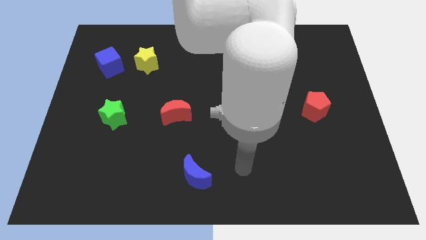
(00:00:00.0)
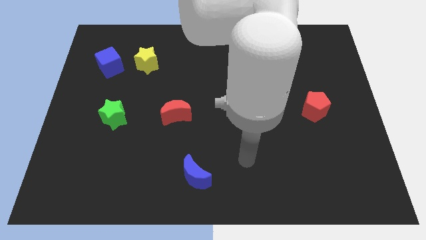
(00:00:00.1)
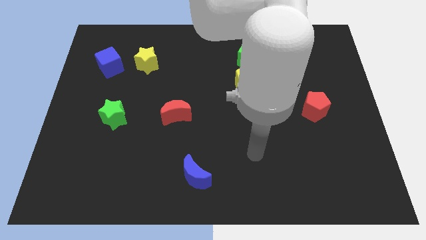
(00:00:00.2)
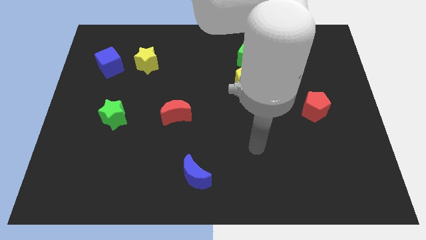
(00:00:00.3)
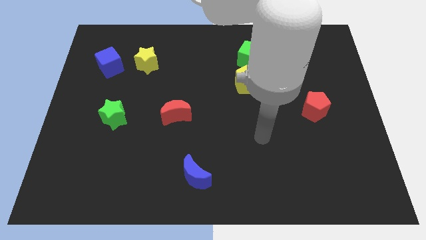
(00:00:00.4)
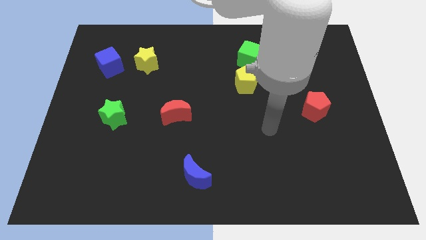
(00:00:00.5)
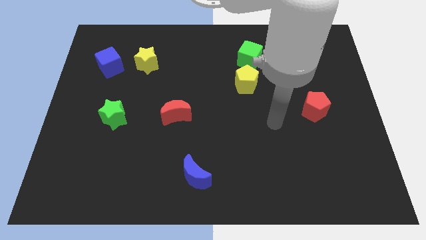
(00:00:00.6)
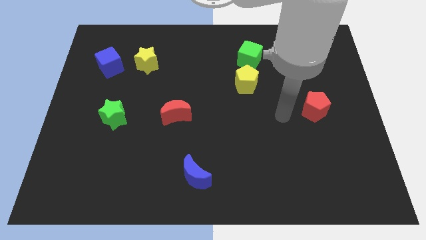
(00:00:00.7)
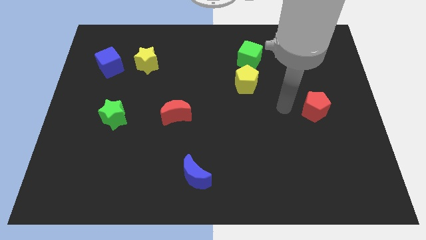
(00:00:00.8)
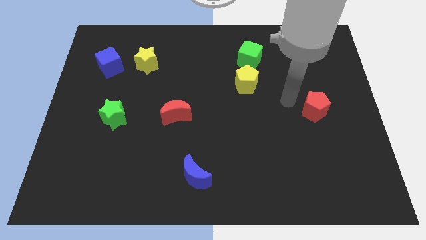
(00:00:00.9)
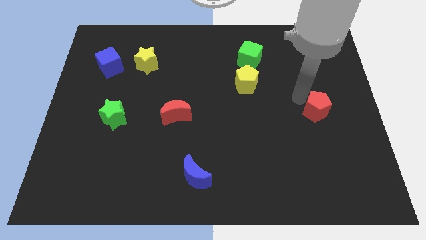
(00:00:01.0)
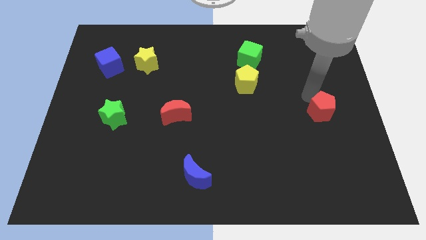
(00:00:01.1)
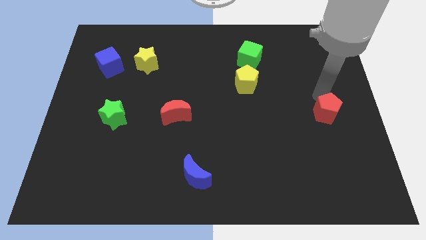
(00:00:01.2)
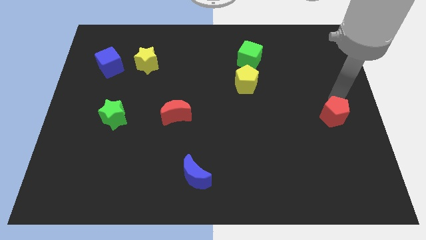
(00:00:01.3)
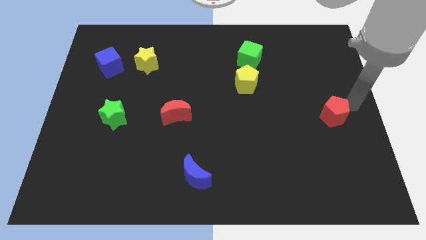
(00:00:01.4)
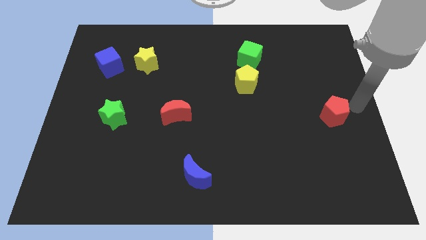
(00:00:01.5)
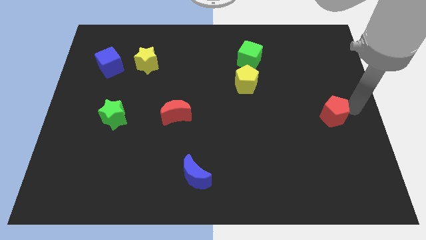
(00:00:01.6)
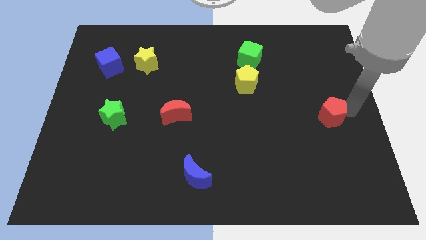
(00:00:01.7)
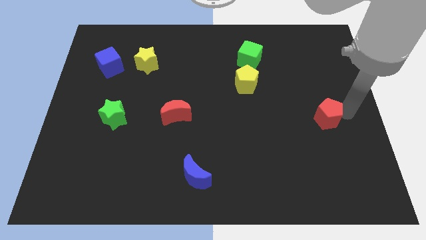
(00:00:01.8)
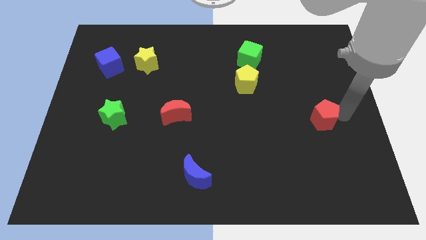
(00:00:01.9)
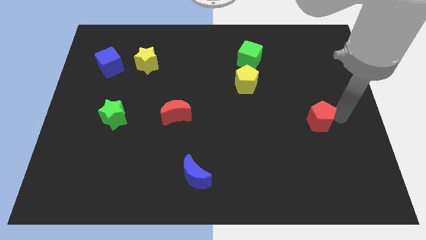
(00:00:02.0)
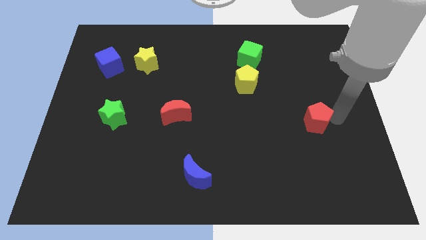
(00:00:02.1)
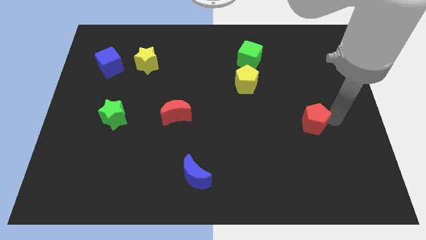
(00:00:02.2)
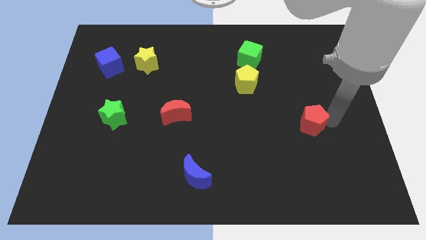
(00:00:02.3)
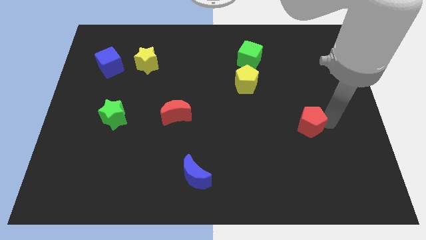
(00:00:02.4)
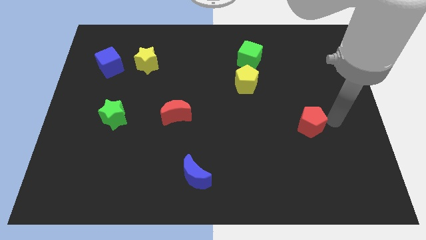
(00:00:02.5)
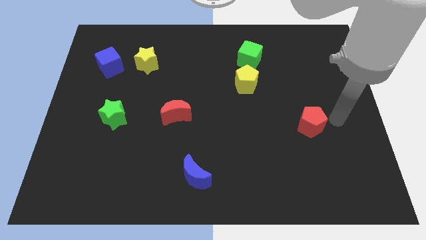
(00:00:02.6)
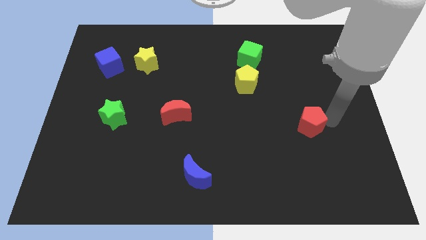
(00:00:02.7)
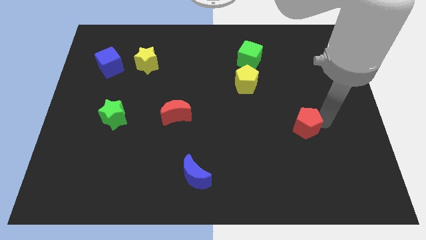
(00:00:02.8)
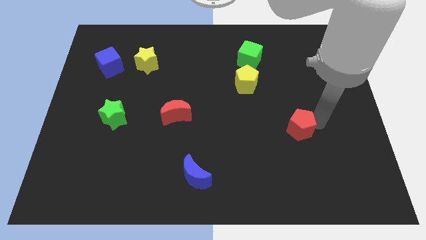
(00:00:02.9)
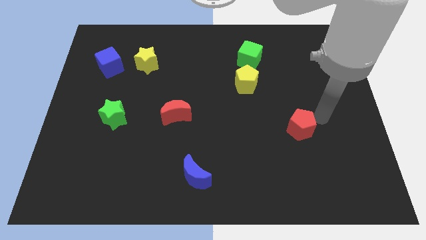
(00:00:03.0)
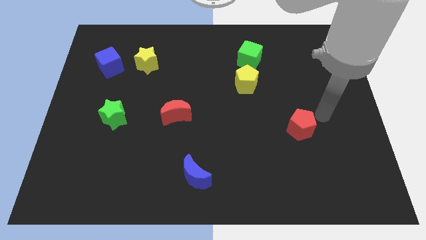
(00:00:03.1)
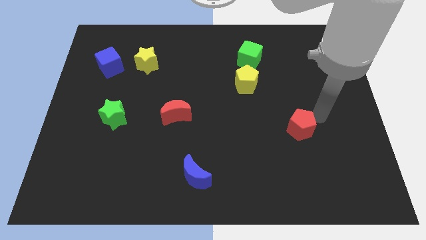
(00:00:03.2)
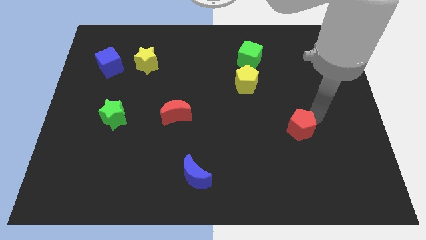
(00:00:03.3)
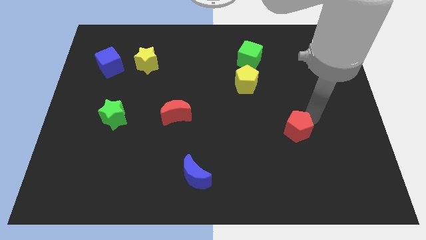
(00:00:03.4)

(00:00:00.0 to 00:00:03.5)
move the red pentagon slightly diagonally down and left

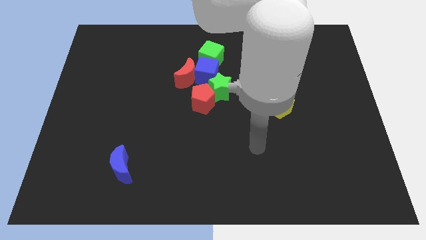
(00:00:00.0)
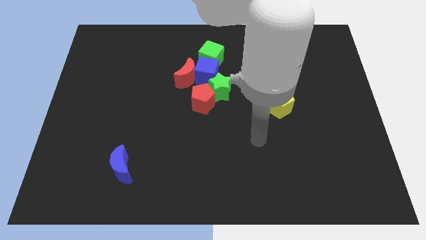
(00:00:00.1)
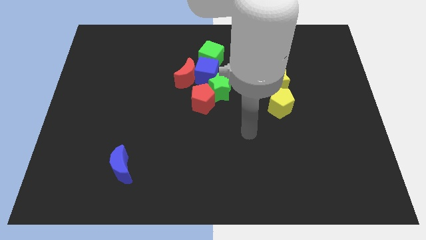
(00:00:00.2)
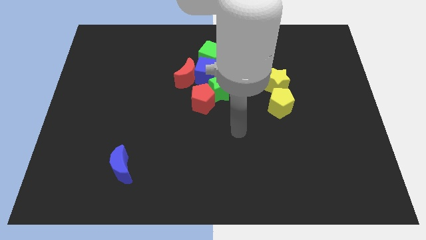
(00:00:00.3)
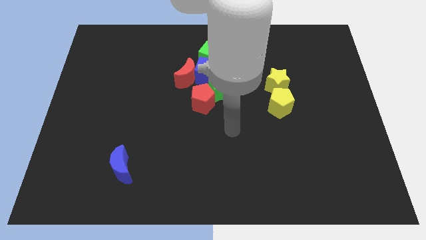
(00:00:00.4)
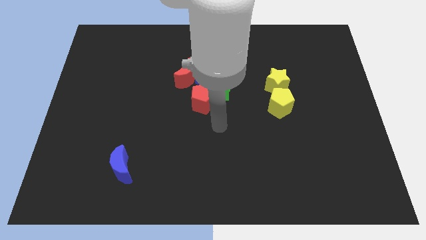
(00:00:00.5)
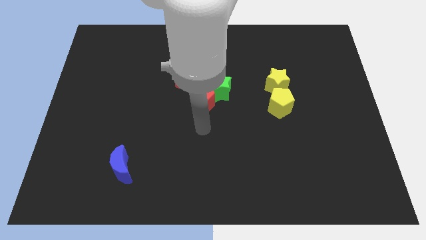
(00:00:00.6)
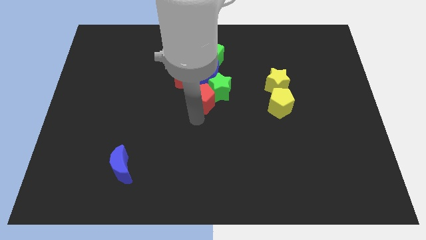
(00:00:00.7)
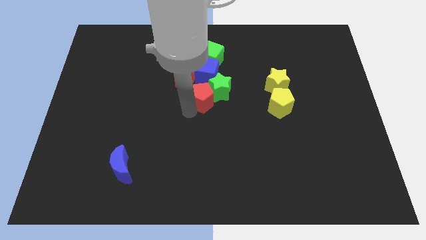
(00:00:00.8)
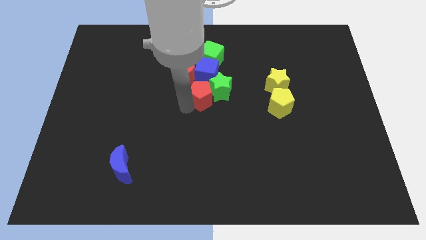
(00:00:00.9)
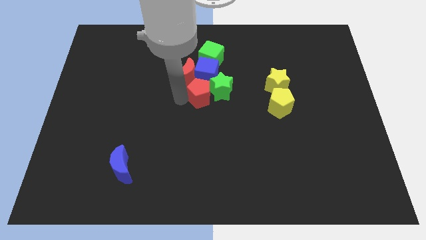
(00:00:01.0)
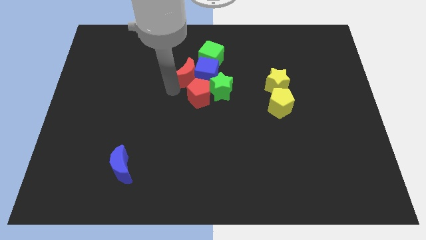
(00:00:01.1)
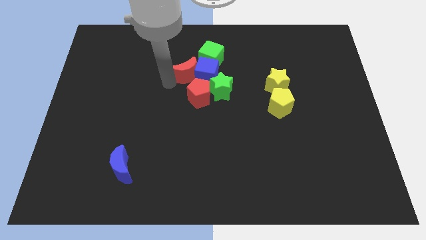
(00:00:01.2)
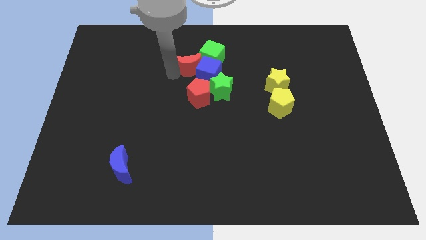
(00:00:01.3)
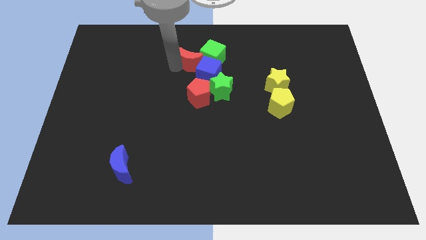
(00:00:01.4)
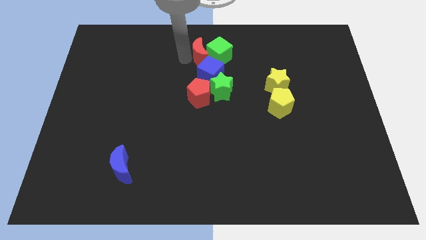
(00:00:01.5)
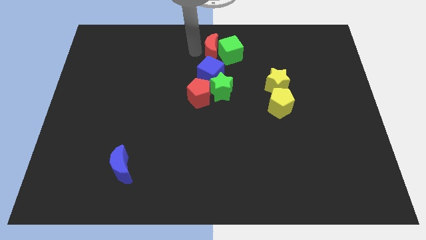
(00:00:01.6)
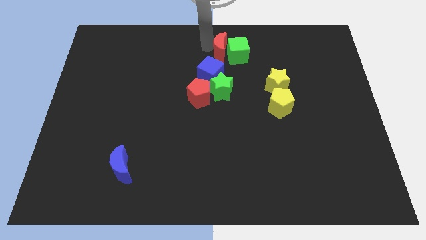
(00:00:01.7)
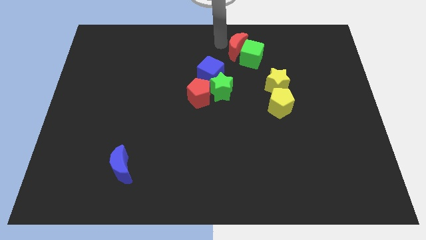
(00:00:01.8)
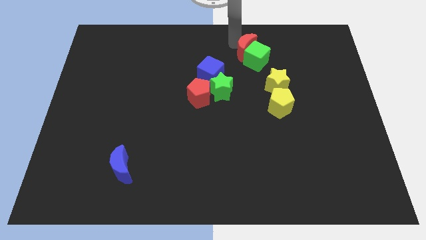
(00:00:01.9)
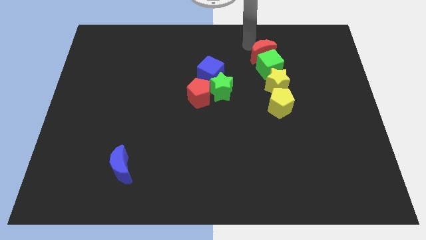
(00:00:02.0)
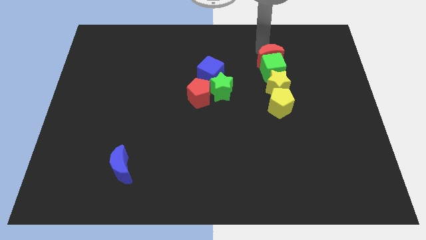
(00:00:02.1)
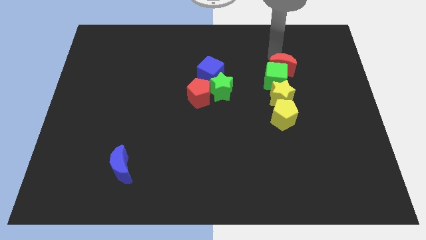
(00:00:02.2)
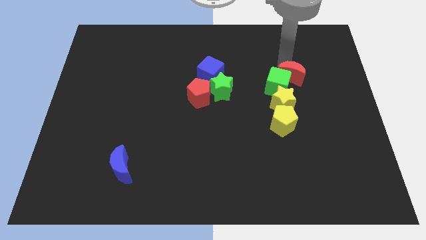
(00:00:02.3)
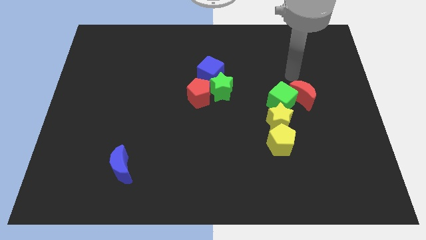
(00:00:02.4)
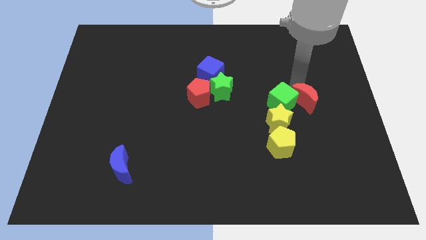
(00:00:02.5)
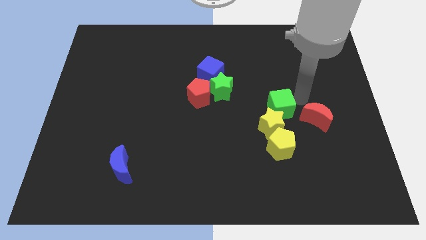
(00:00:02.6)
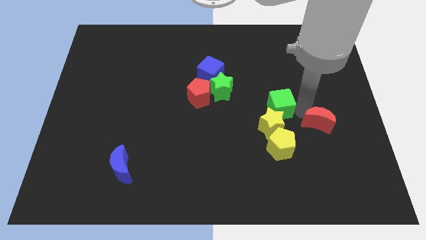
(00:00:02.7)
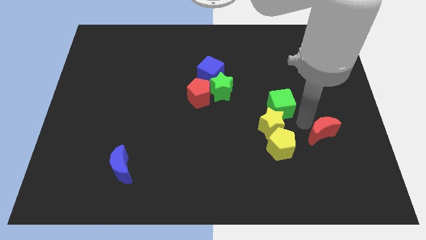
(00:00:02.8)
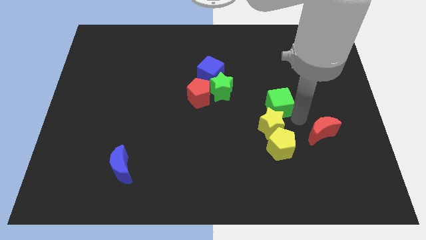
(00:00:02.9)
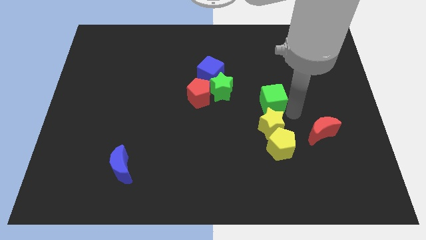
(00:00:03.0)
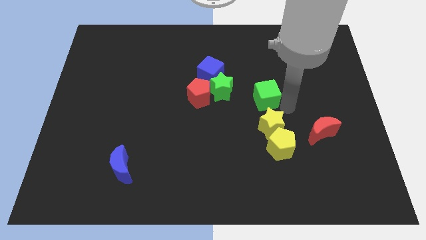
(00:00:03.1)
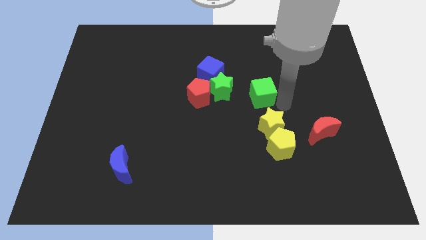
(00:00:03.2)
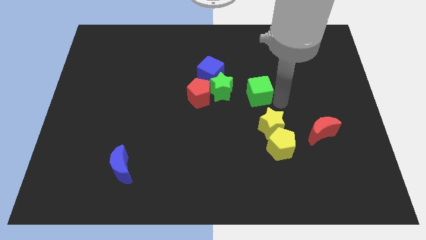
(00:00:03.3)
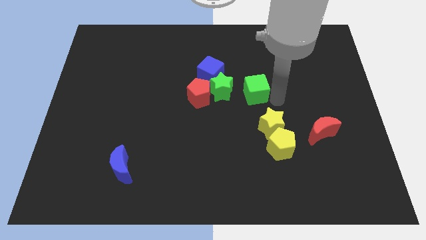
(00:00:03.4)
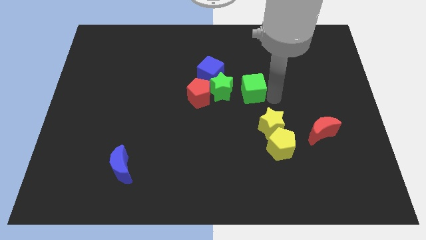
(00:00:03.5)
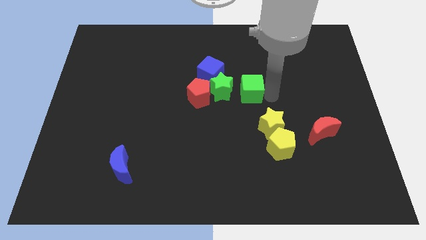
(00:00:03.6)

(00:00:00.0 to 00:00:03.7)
slightly slide the green cube downwards

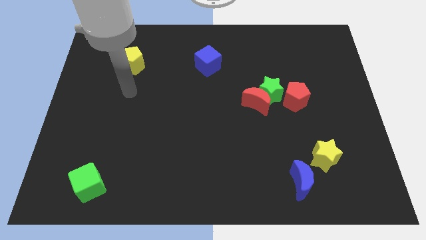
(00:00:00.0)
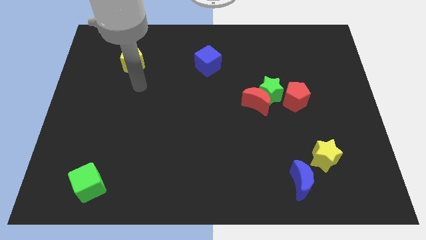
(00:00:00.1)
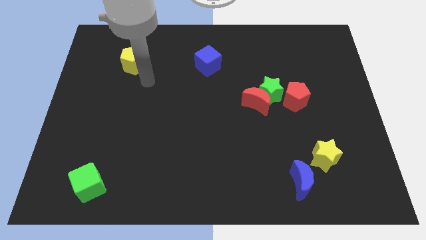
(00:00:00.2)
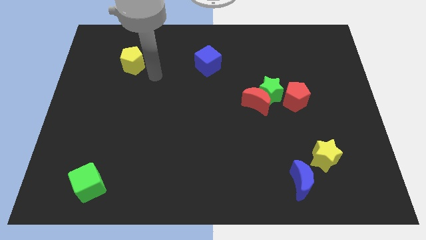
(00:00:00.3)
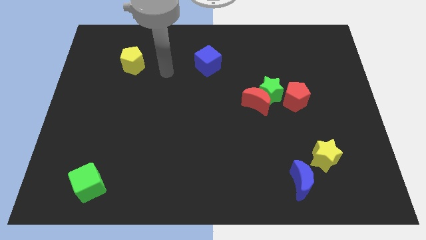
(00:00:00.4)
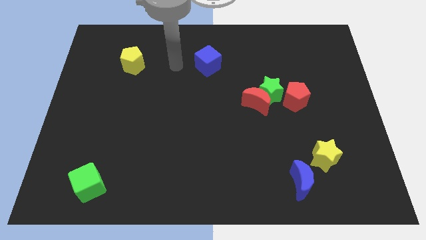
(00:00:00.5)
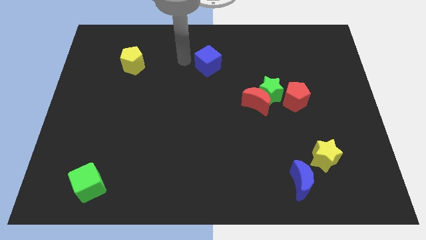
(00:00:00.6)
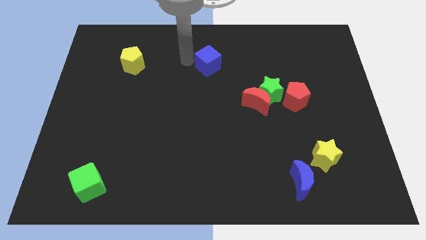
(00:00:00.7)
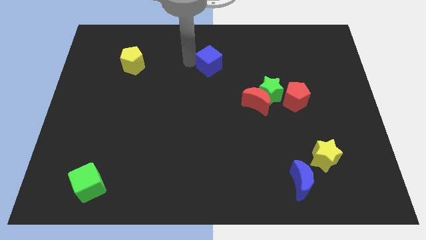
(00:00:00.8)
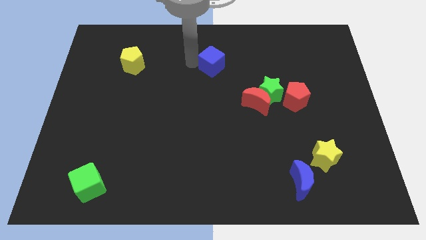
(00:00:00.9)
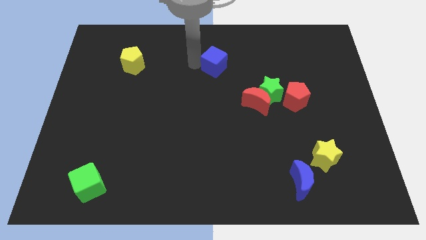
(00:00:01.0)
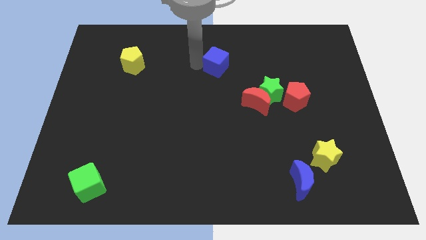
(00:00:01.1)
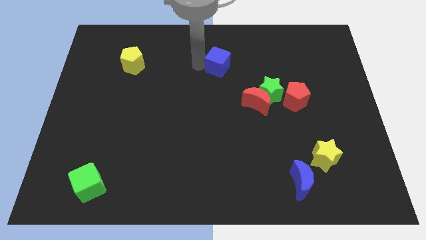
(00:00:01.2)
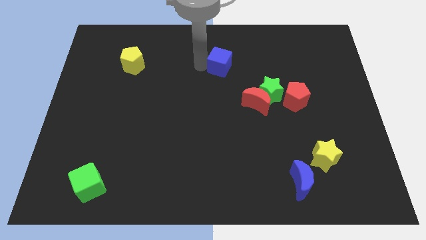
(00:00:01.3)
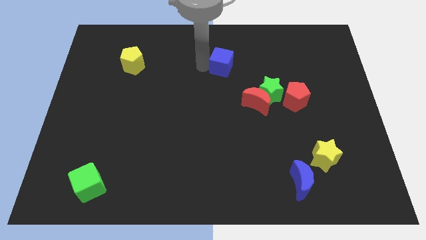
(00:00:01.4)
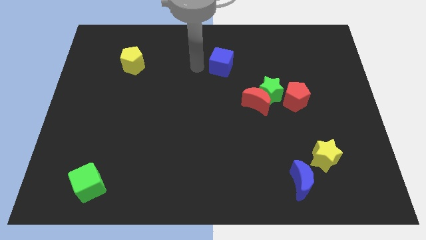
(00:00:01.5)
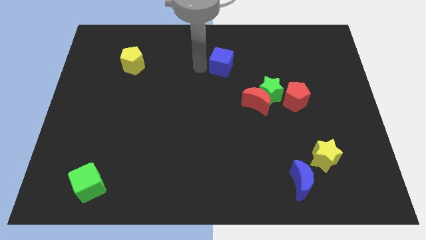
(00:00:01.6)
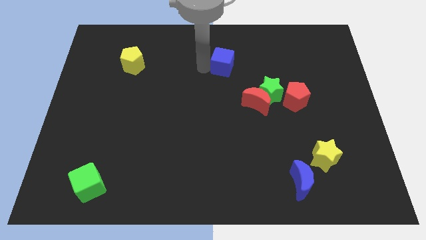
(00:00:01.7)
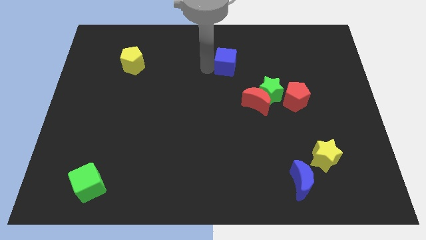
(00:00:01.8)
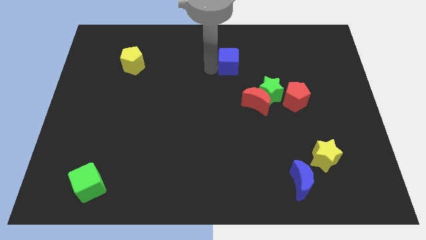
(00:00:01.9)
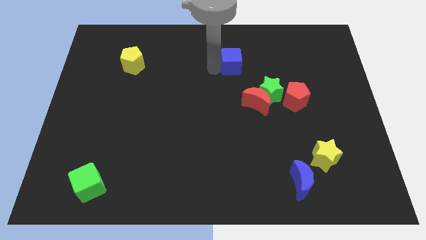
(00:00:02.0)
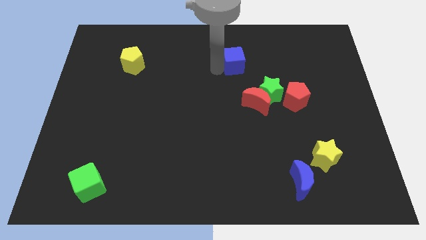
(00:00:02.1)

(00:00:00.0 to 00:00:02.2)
slightly move the blue cube to the right
